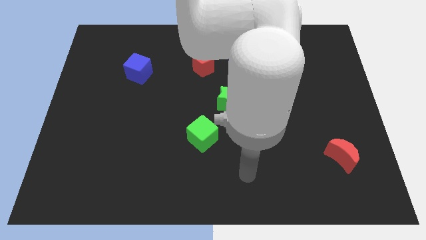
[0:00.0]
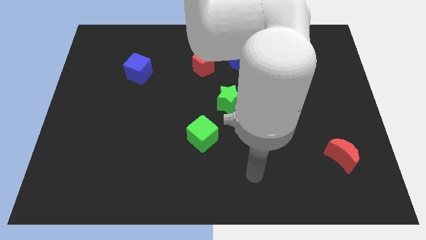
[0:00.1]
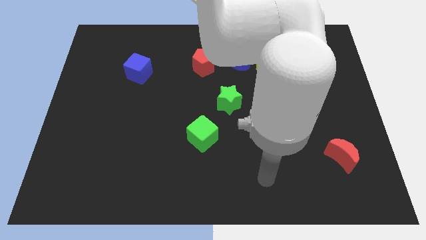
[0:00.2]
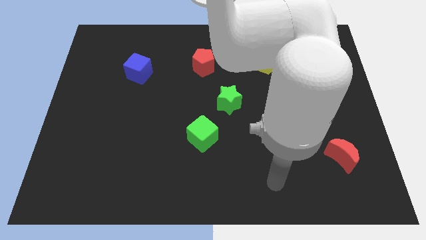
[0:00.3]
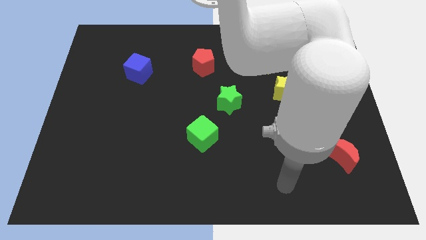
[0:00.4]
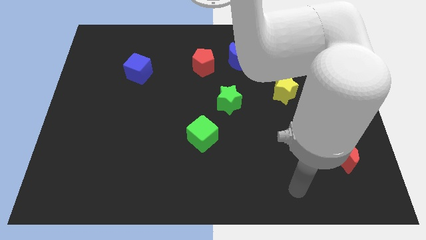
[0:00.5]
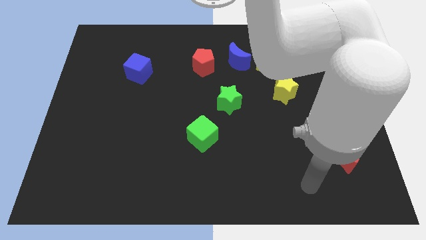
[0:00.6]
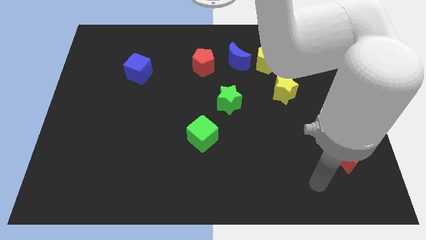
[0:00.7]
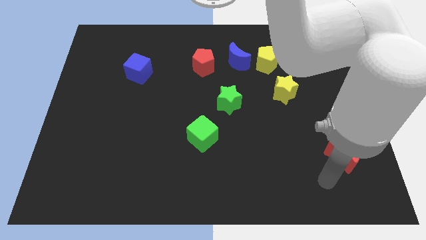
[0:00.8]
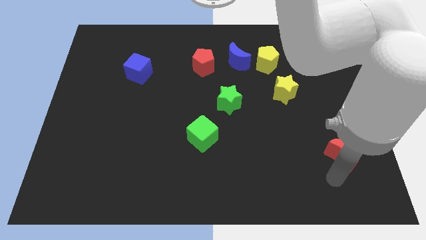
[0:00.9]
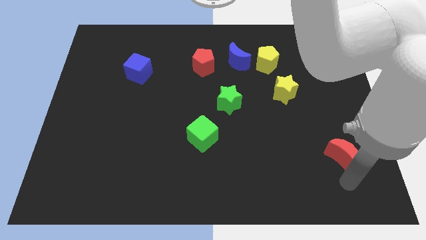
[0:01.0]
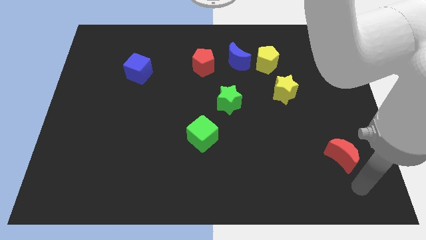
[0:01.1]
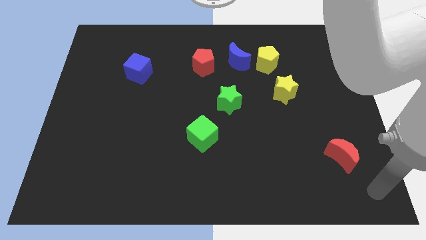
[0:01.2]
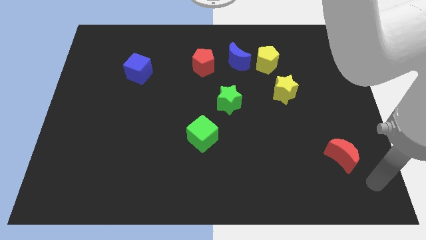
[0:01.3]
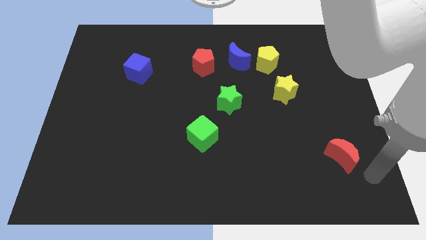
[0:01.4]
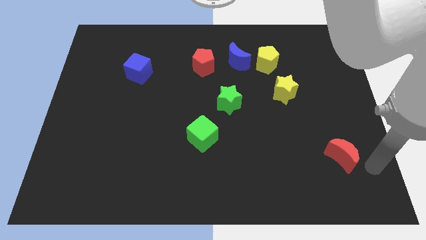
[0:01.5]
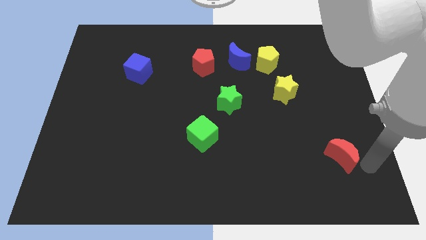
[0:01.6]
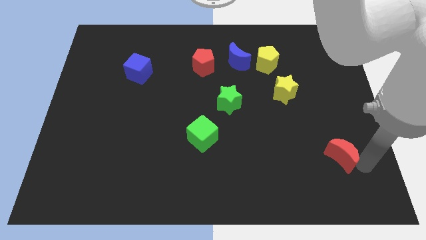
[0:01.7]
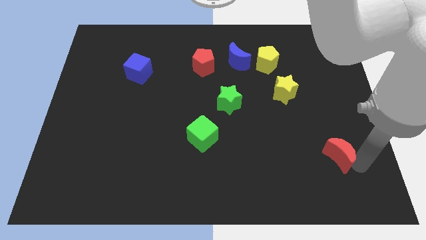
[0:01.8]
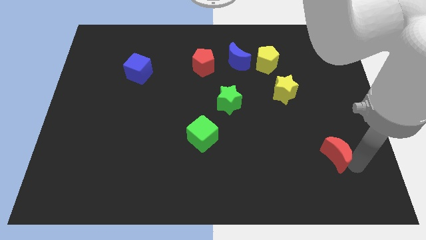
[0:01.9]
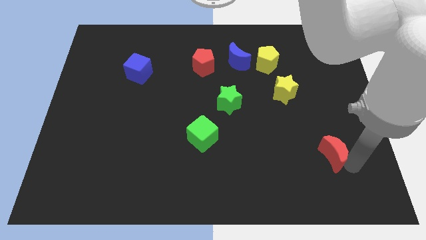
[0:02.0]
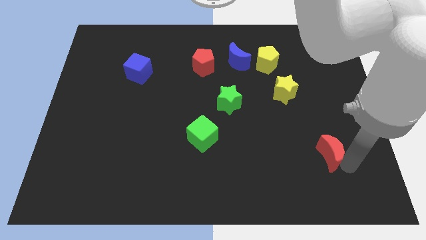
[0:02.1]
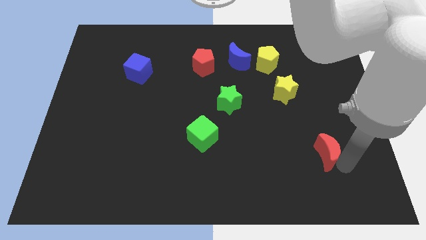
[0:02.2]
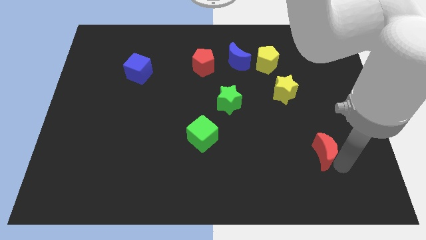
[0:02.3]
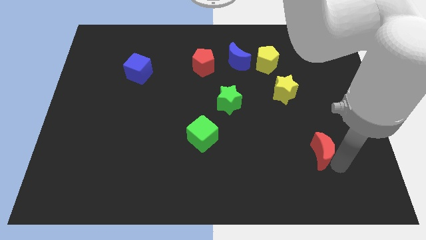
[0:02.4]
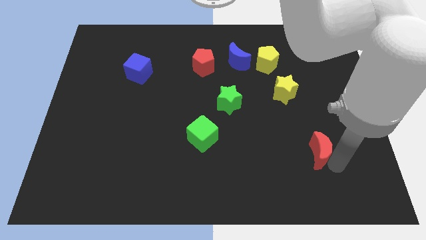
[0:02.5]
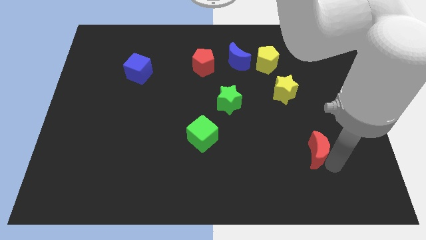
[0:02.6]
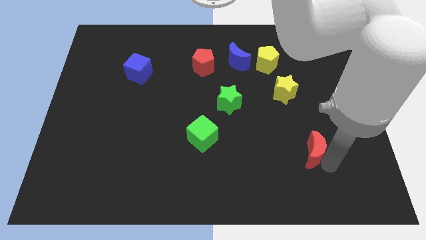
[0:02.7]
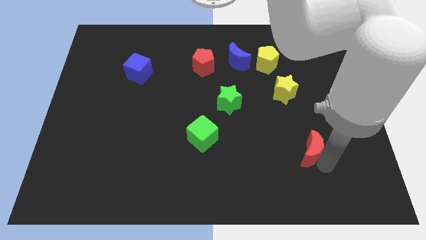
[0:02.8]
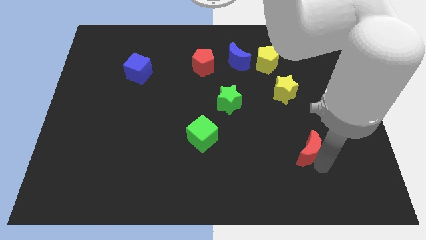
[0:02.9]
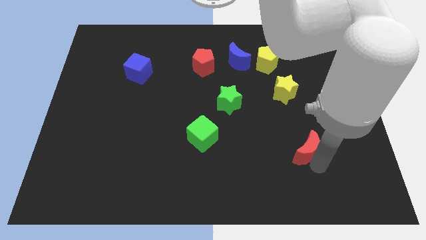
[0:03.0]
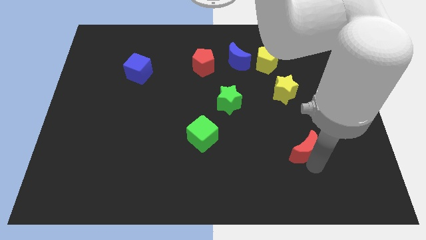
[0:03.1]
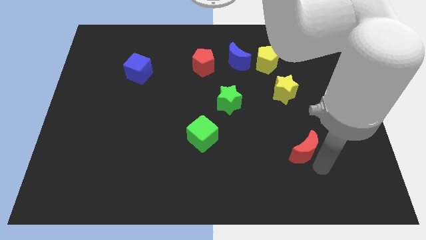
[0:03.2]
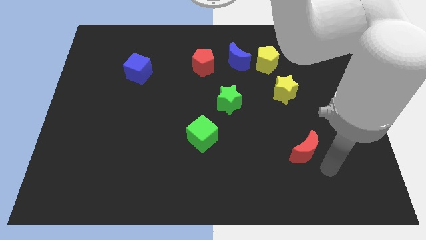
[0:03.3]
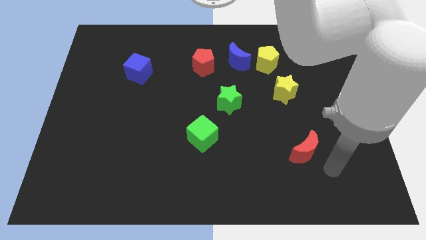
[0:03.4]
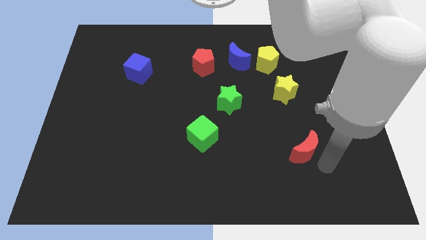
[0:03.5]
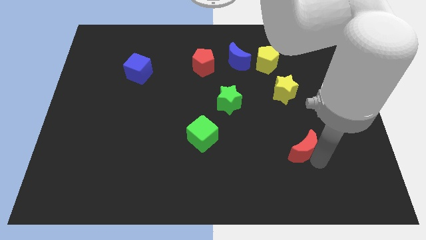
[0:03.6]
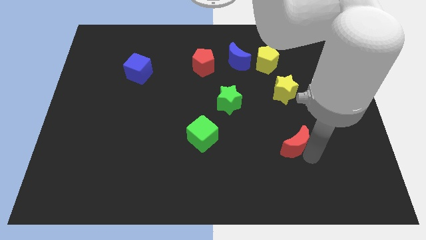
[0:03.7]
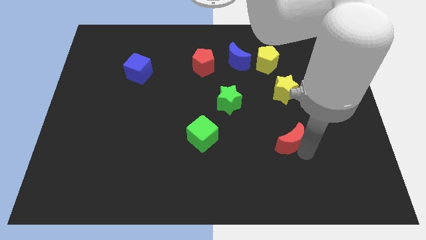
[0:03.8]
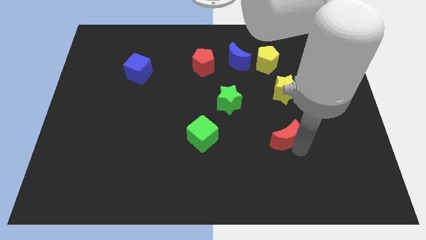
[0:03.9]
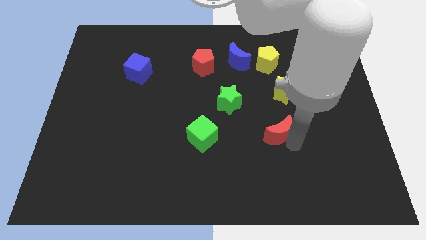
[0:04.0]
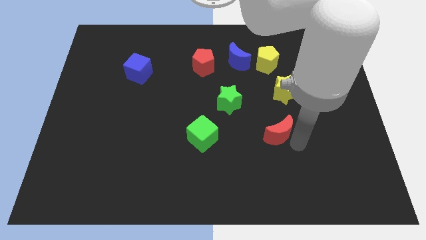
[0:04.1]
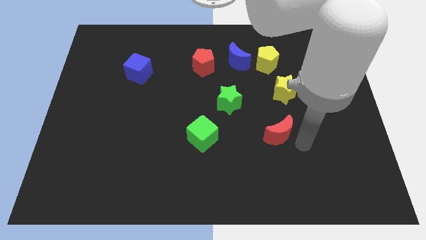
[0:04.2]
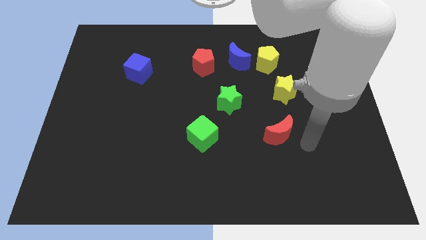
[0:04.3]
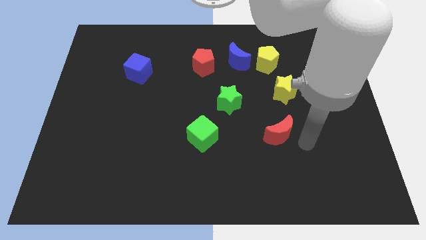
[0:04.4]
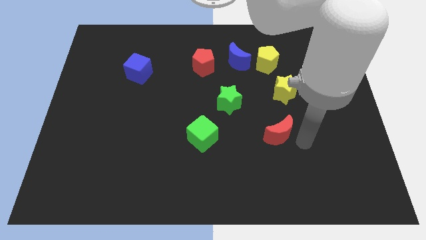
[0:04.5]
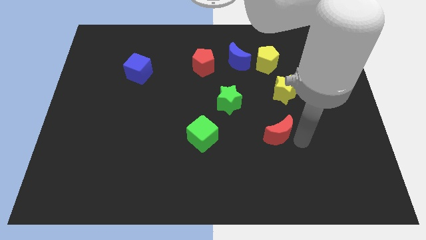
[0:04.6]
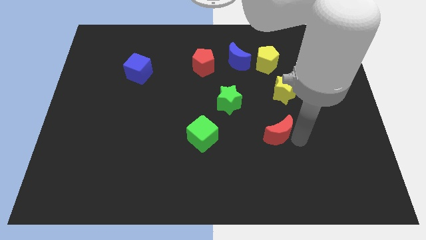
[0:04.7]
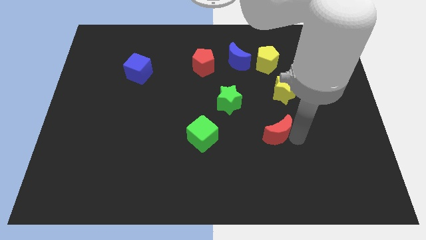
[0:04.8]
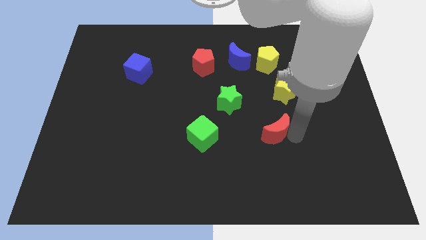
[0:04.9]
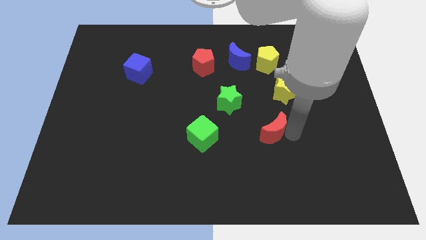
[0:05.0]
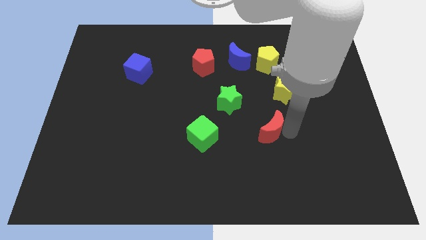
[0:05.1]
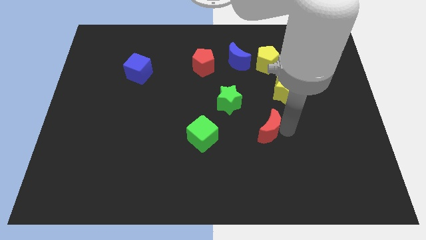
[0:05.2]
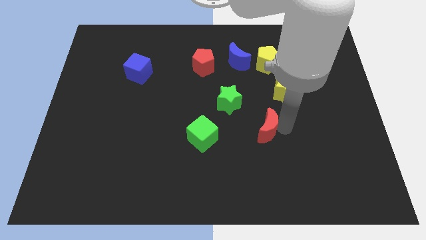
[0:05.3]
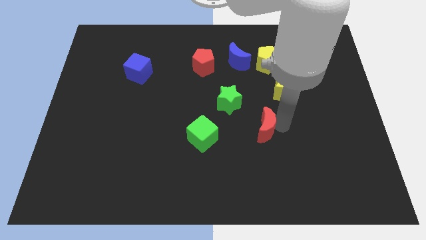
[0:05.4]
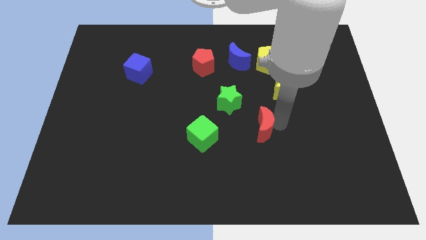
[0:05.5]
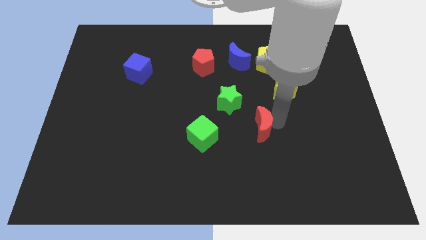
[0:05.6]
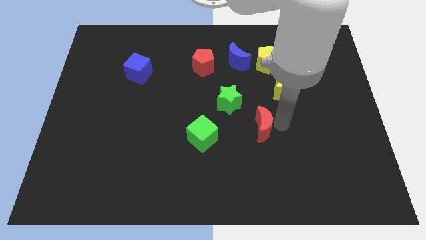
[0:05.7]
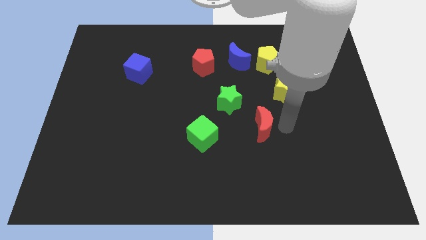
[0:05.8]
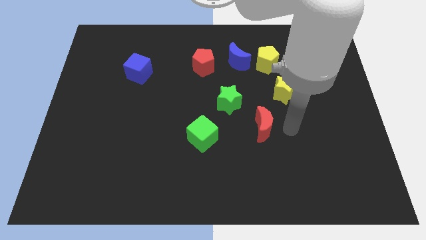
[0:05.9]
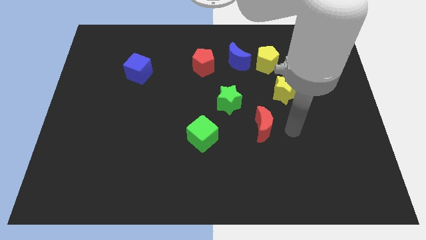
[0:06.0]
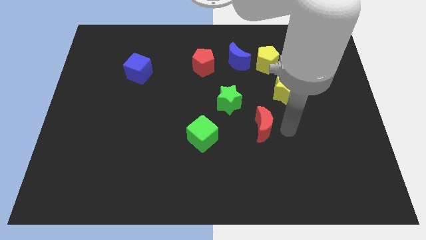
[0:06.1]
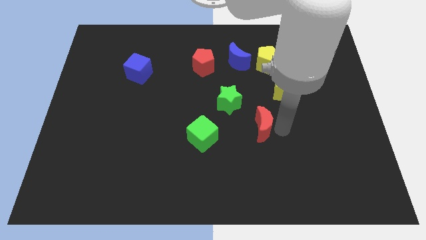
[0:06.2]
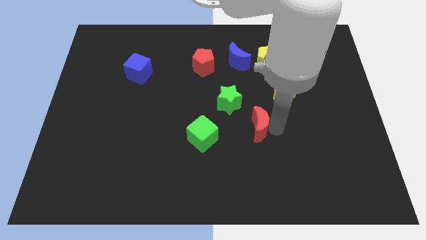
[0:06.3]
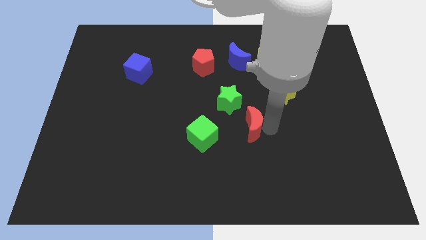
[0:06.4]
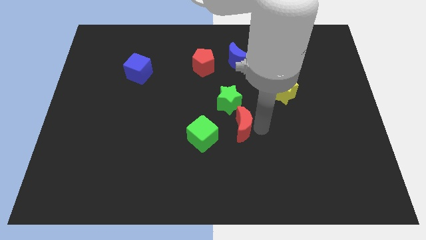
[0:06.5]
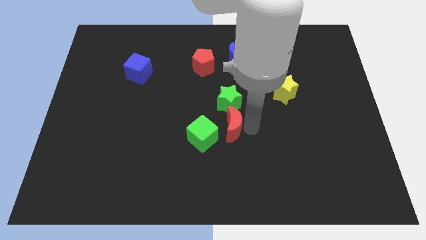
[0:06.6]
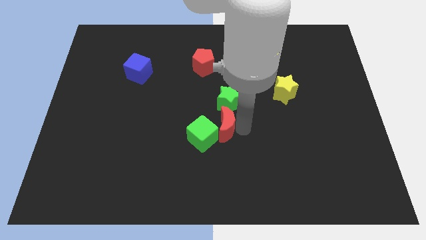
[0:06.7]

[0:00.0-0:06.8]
push the red moon diagonally down and to the left of the green star

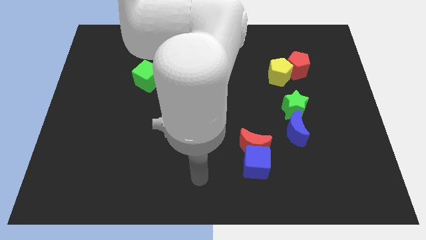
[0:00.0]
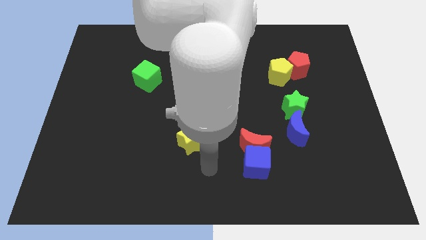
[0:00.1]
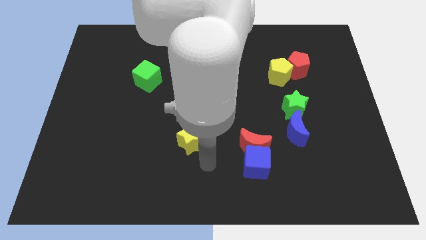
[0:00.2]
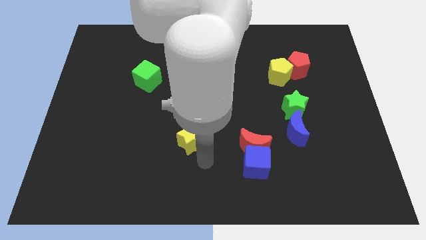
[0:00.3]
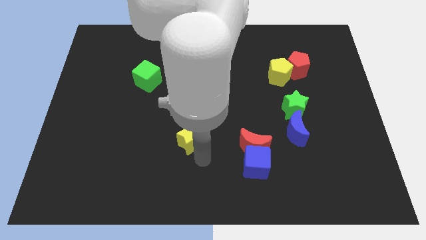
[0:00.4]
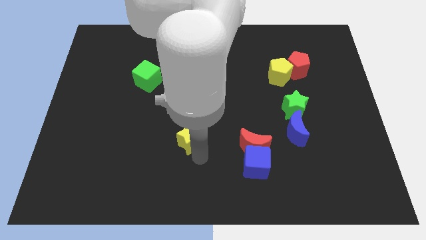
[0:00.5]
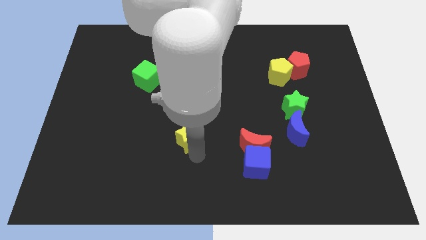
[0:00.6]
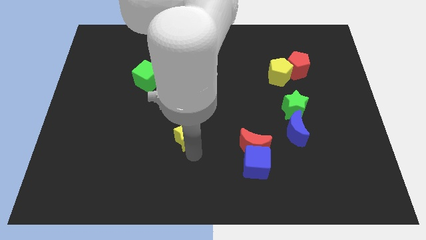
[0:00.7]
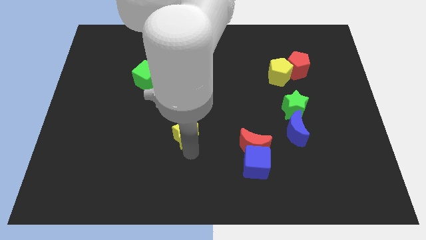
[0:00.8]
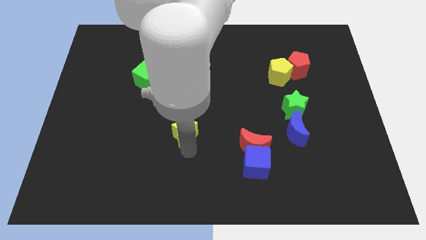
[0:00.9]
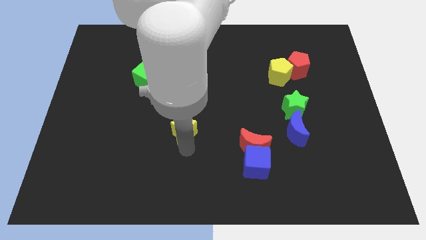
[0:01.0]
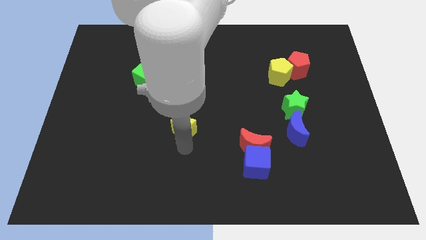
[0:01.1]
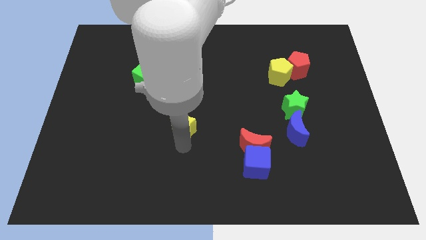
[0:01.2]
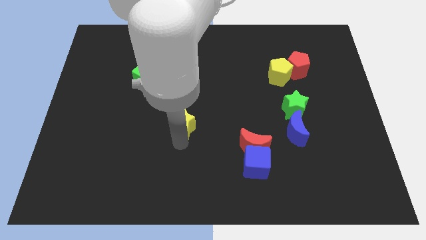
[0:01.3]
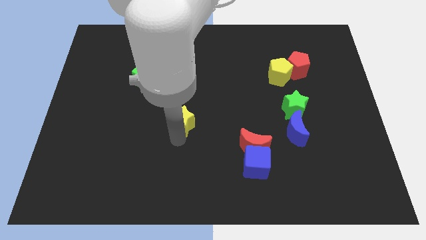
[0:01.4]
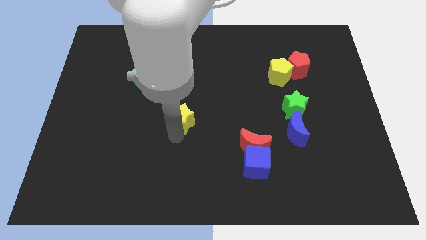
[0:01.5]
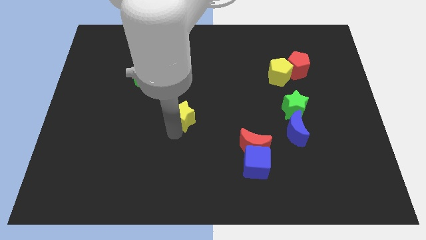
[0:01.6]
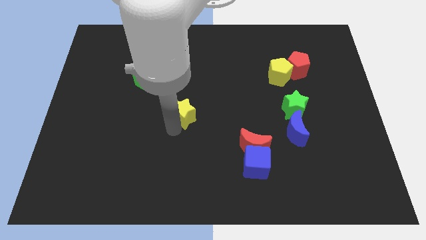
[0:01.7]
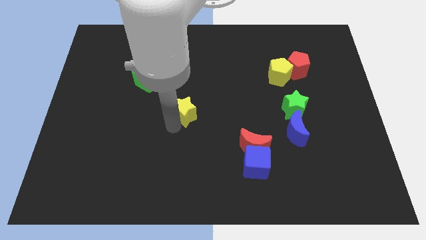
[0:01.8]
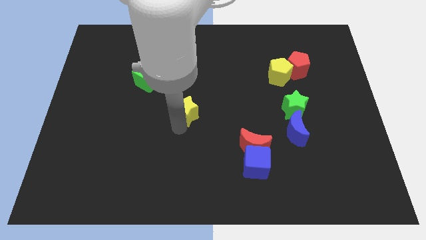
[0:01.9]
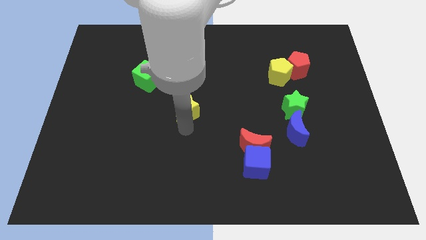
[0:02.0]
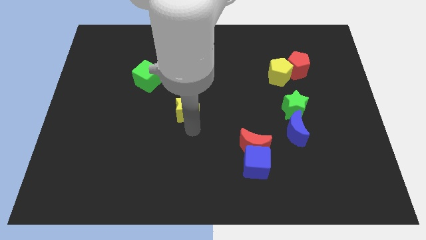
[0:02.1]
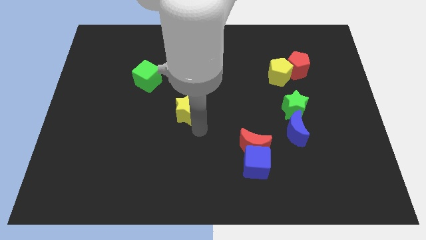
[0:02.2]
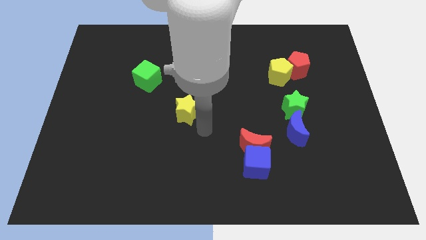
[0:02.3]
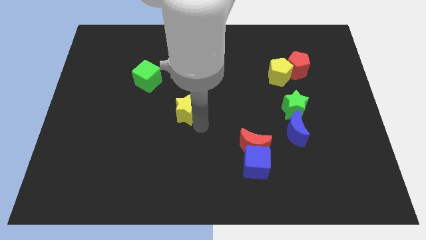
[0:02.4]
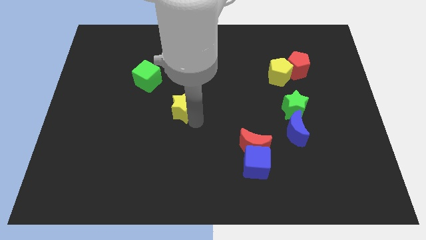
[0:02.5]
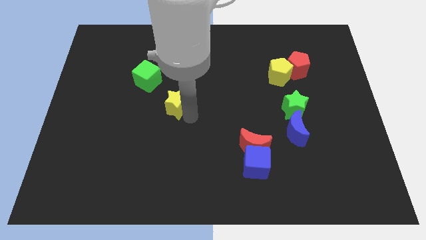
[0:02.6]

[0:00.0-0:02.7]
push the yellow star diagonally down and to the right of the green cube
